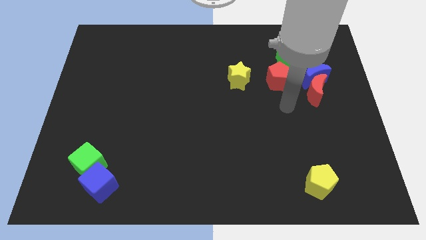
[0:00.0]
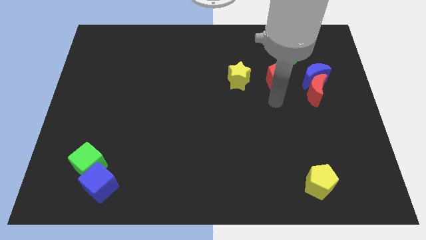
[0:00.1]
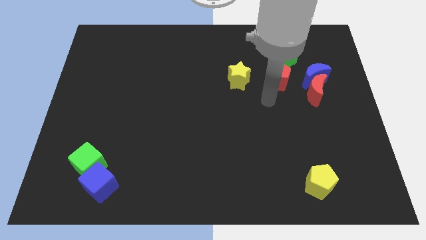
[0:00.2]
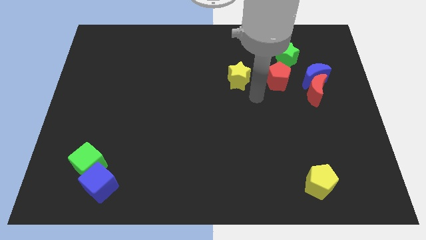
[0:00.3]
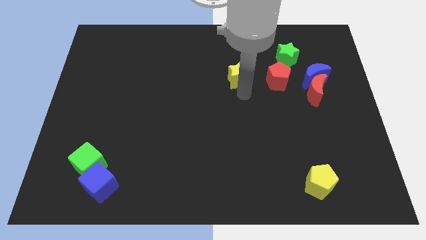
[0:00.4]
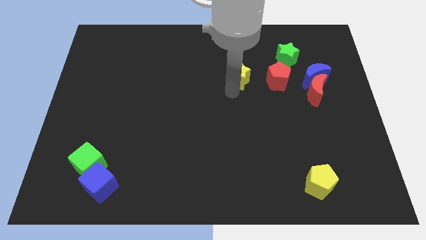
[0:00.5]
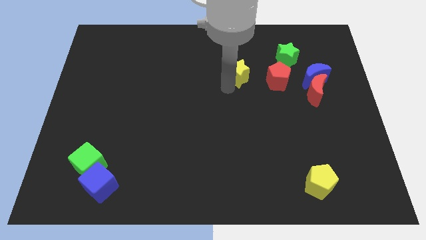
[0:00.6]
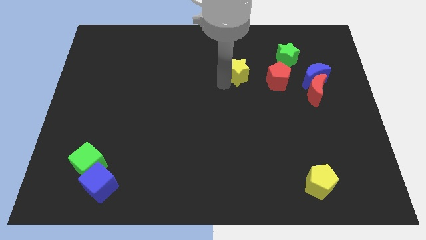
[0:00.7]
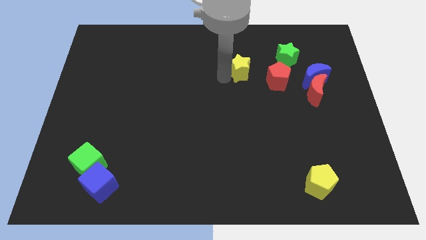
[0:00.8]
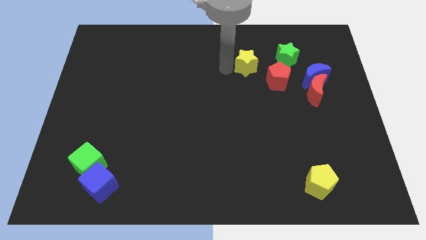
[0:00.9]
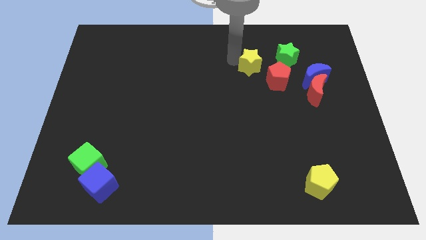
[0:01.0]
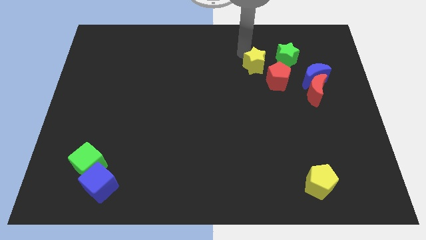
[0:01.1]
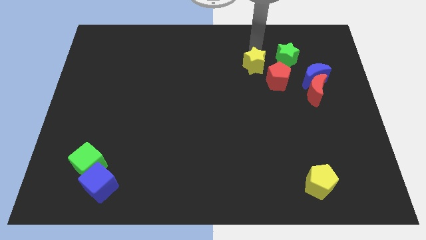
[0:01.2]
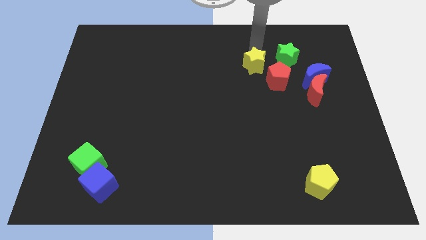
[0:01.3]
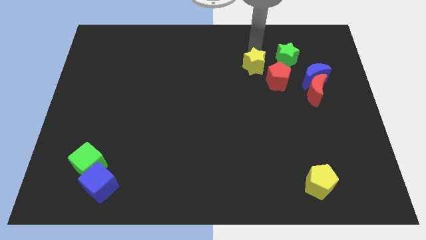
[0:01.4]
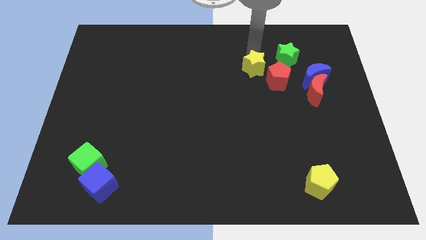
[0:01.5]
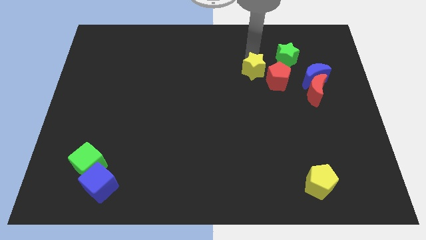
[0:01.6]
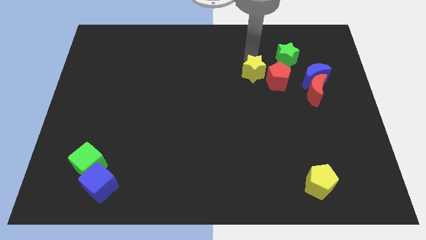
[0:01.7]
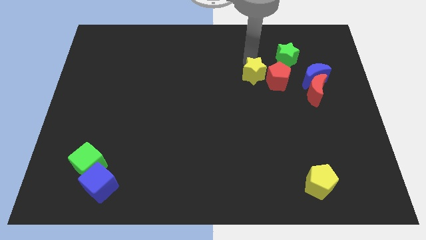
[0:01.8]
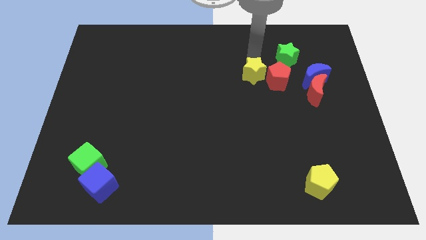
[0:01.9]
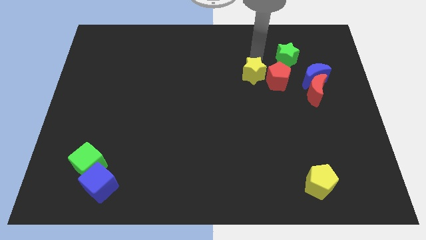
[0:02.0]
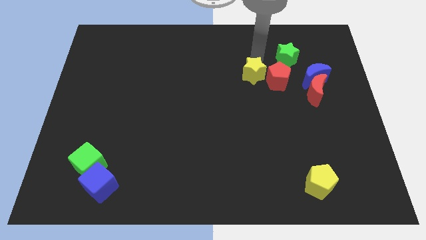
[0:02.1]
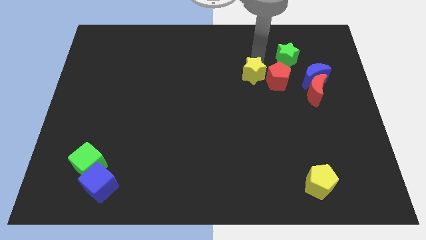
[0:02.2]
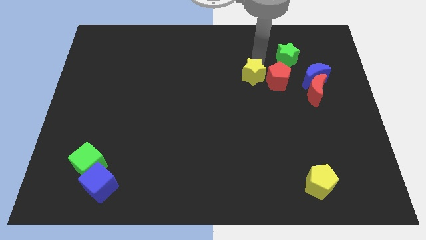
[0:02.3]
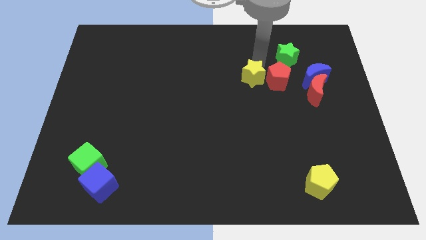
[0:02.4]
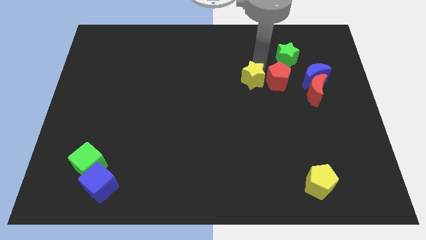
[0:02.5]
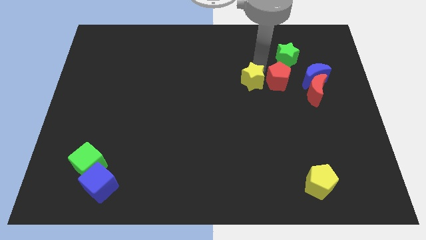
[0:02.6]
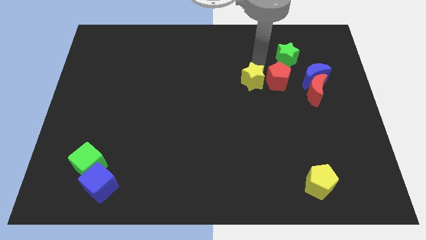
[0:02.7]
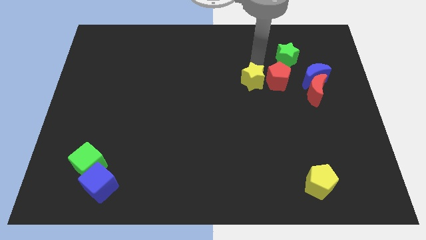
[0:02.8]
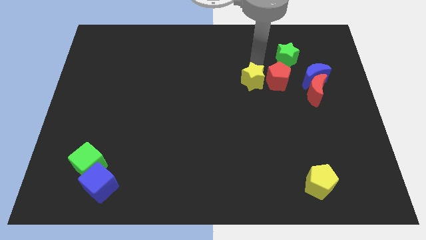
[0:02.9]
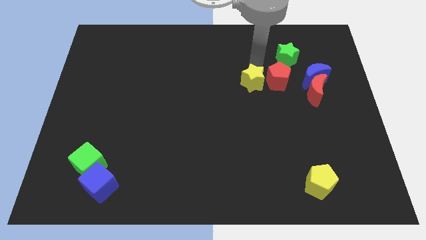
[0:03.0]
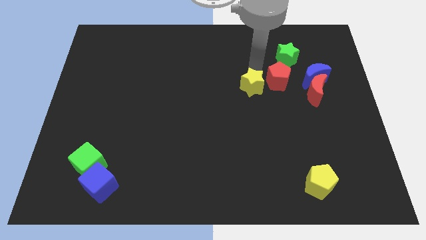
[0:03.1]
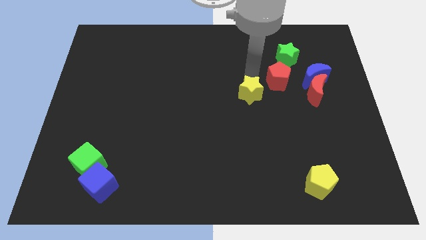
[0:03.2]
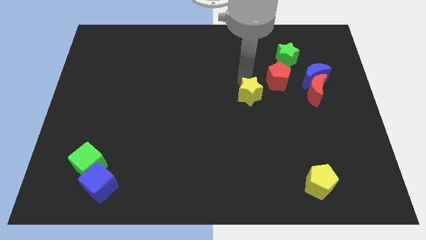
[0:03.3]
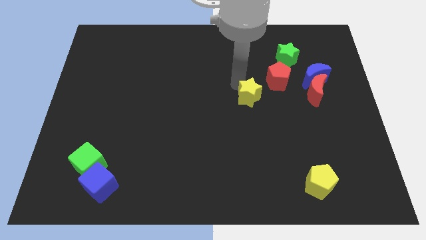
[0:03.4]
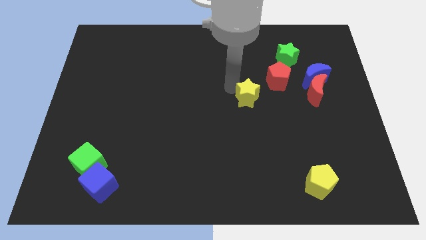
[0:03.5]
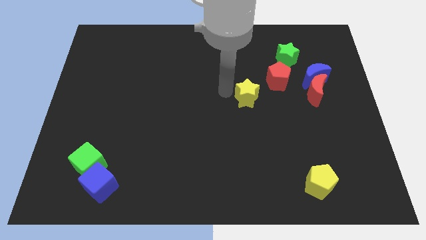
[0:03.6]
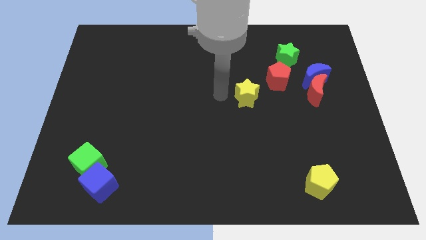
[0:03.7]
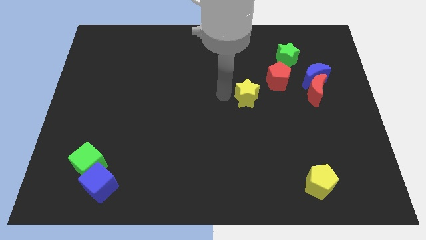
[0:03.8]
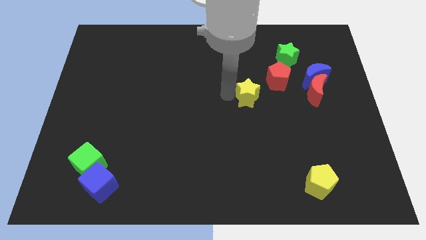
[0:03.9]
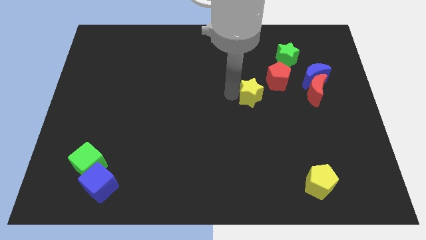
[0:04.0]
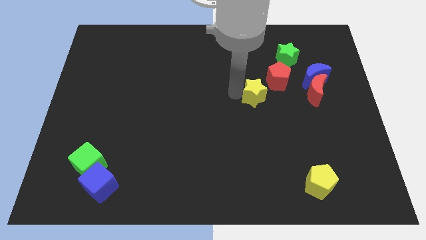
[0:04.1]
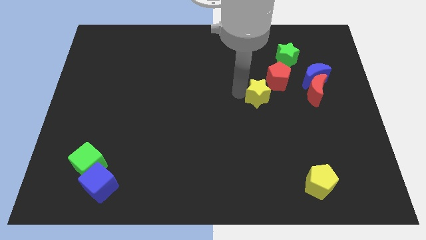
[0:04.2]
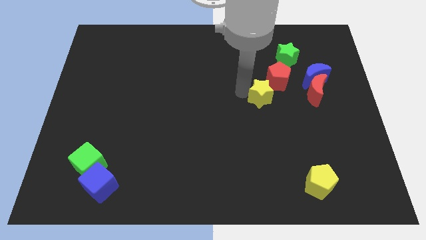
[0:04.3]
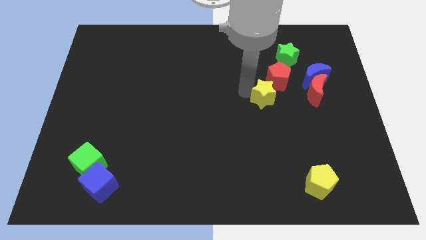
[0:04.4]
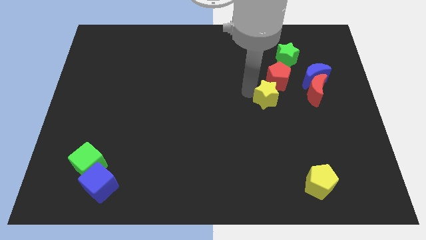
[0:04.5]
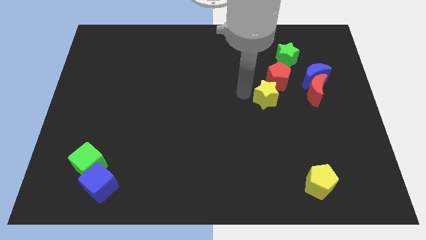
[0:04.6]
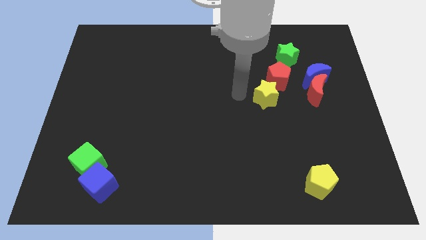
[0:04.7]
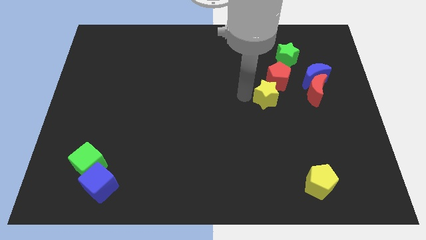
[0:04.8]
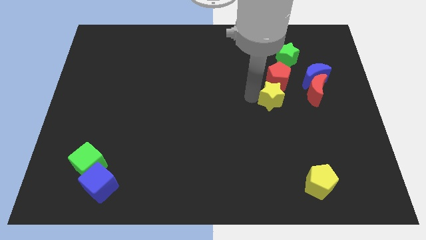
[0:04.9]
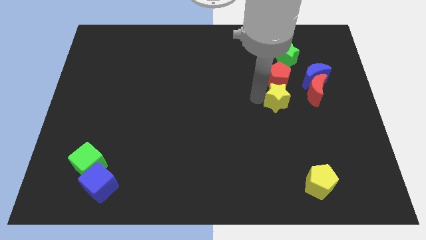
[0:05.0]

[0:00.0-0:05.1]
slide the yellow star to the bottom left side of the blue moon

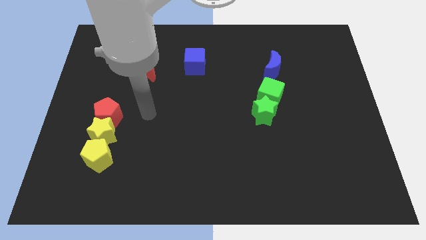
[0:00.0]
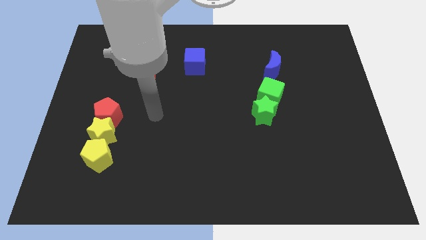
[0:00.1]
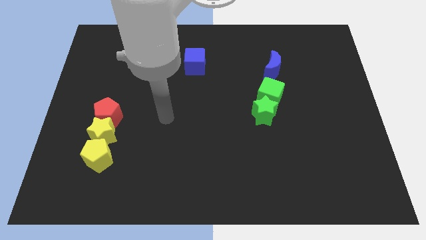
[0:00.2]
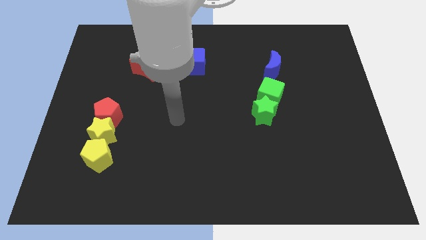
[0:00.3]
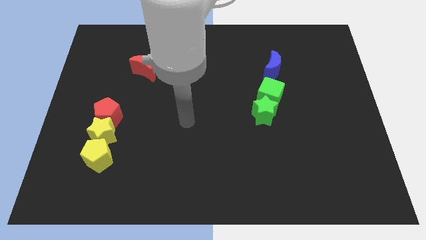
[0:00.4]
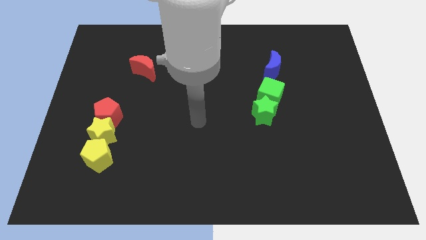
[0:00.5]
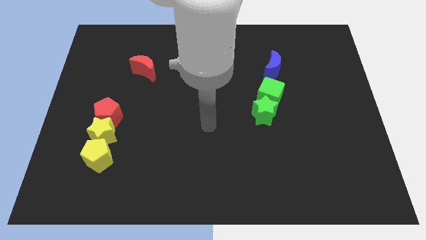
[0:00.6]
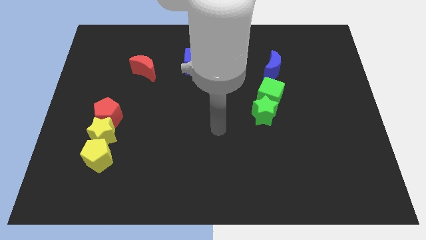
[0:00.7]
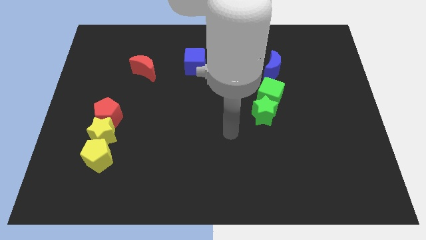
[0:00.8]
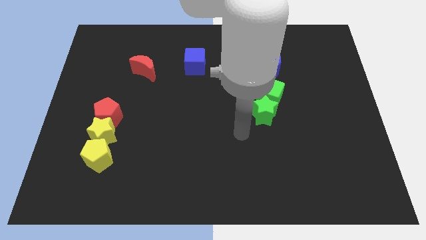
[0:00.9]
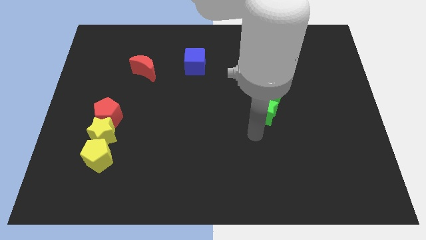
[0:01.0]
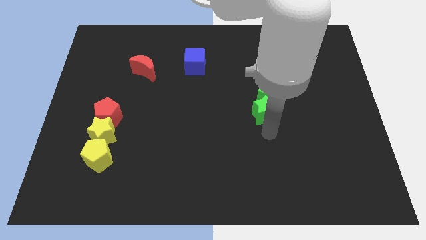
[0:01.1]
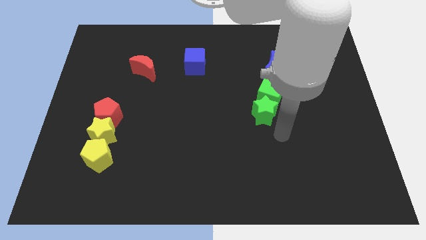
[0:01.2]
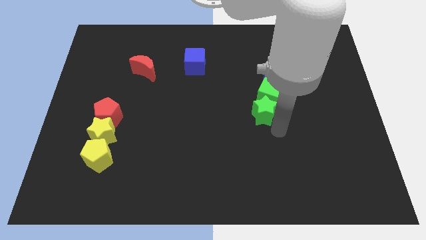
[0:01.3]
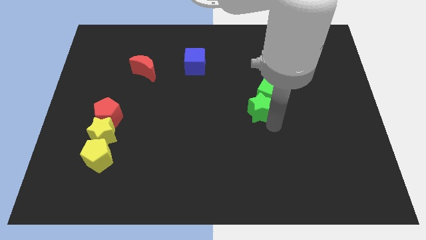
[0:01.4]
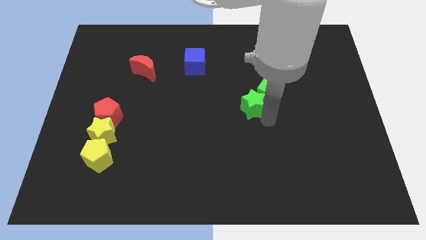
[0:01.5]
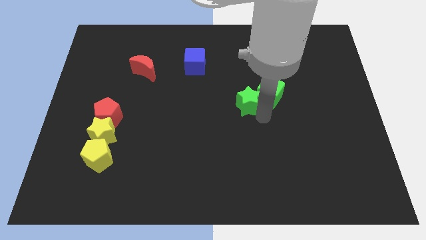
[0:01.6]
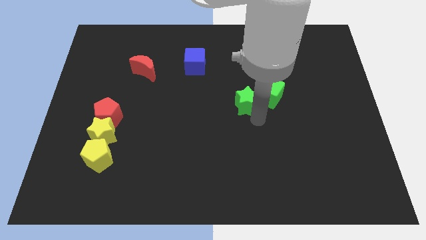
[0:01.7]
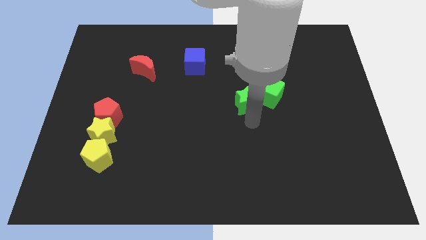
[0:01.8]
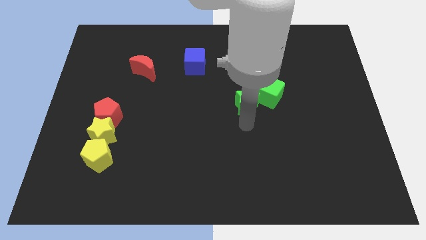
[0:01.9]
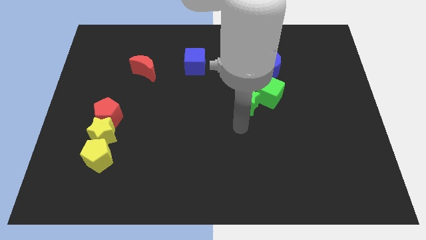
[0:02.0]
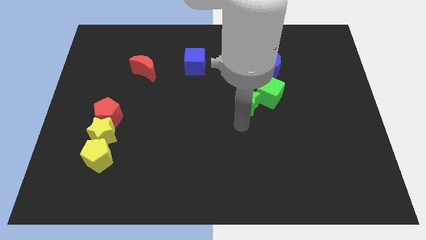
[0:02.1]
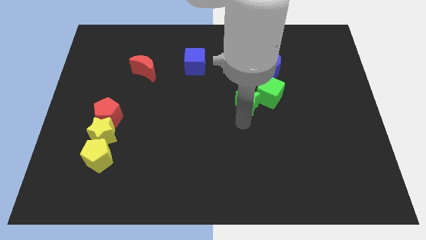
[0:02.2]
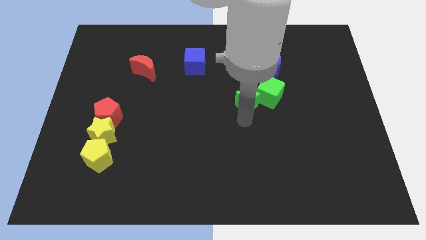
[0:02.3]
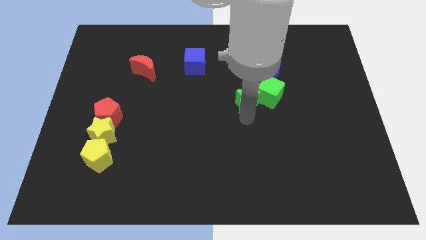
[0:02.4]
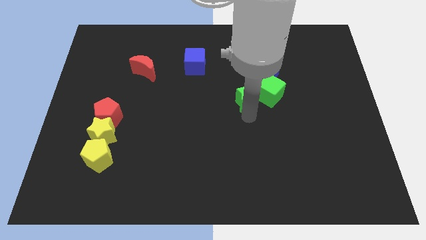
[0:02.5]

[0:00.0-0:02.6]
push the green star to the bottom left of the blue moon
